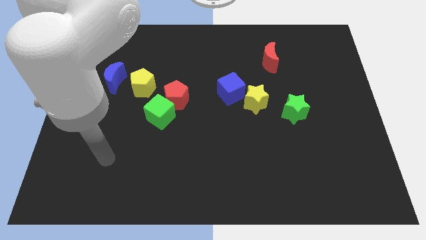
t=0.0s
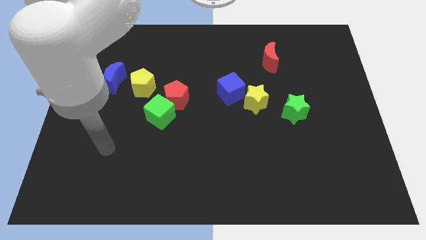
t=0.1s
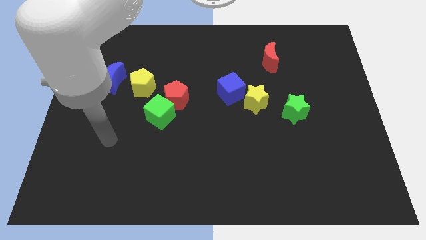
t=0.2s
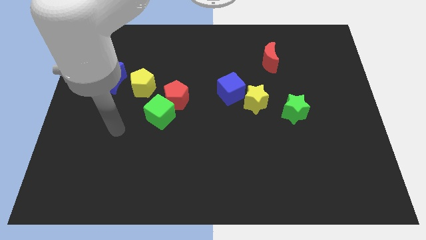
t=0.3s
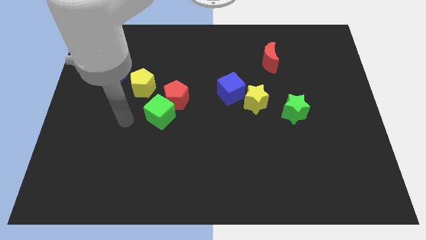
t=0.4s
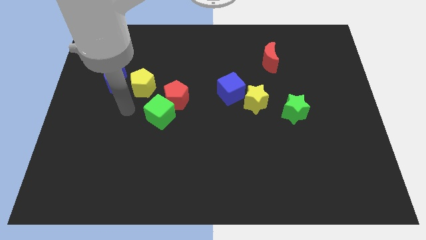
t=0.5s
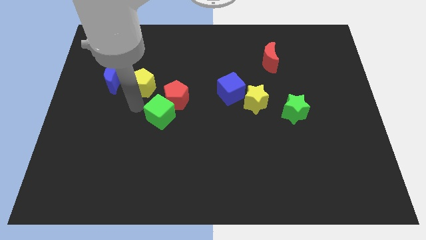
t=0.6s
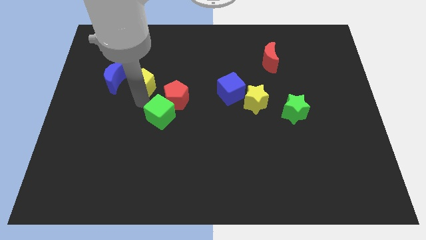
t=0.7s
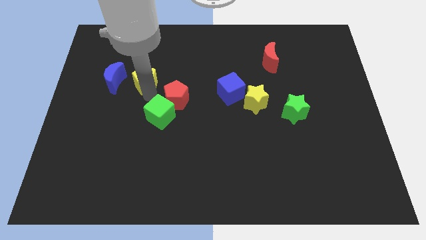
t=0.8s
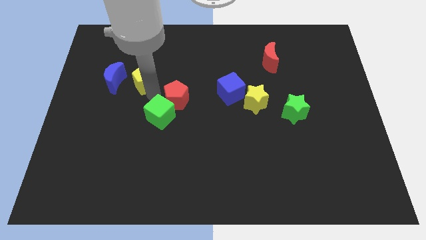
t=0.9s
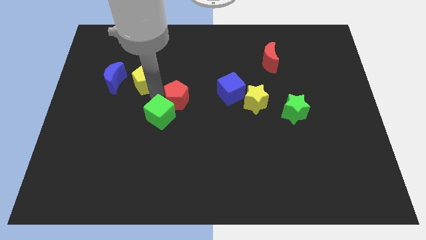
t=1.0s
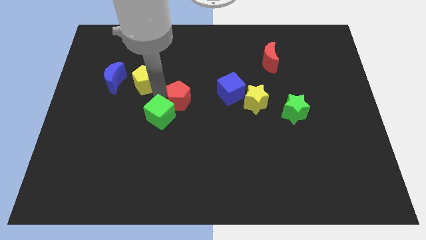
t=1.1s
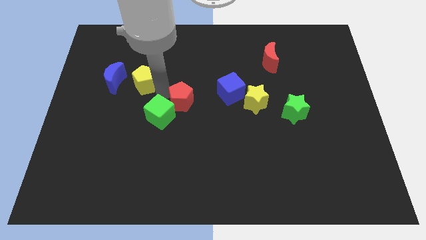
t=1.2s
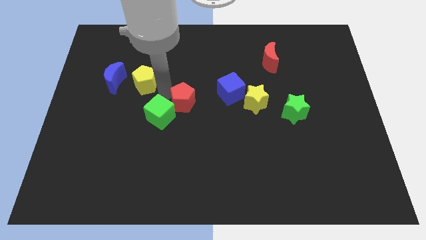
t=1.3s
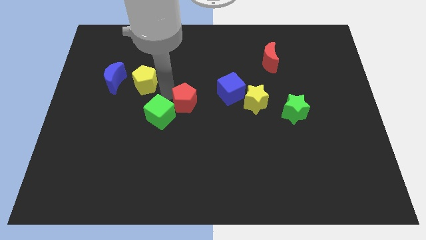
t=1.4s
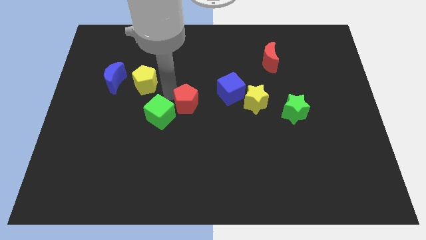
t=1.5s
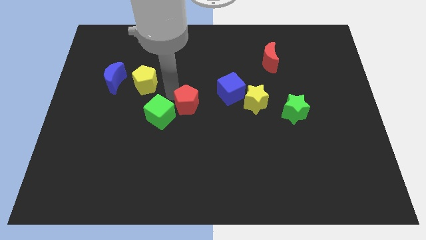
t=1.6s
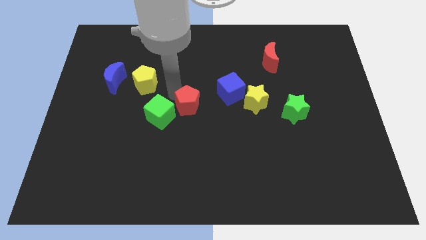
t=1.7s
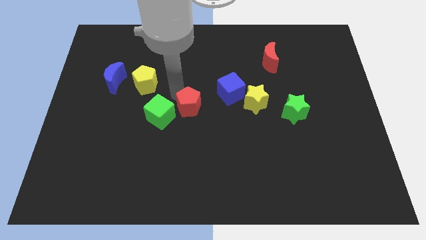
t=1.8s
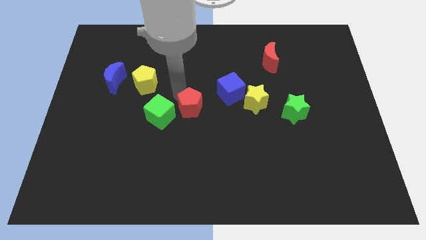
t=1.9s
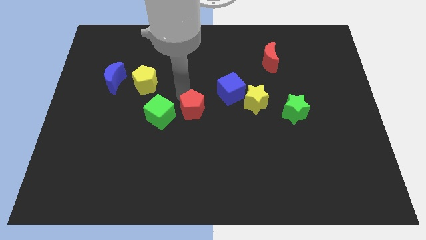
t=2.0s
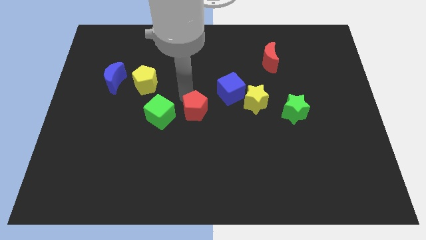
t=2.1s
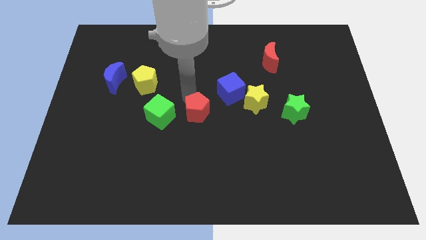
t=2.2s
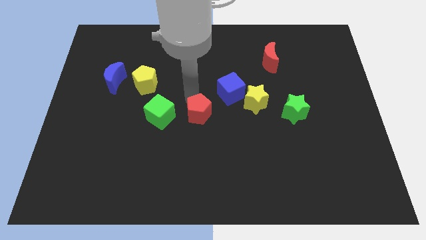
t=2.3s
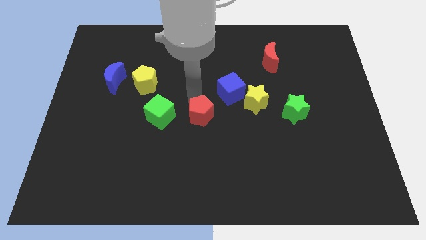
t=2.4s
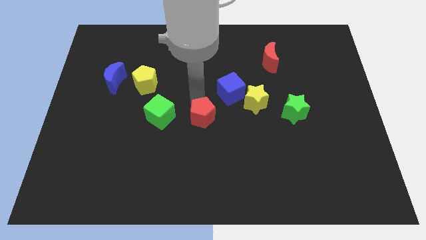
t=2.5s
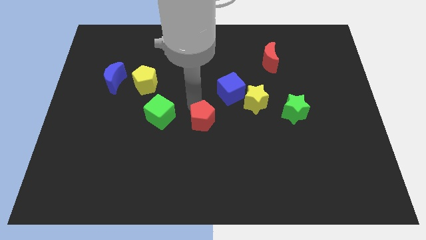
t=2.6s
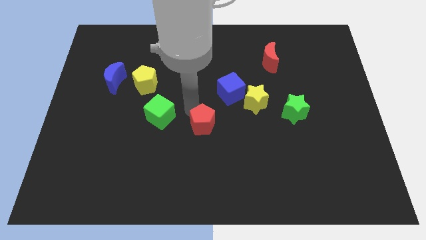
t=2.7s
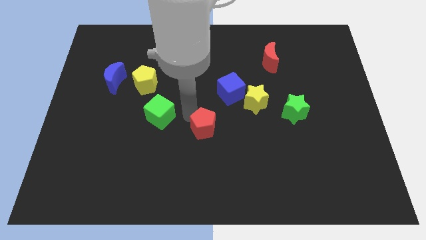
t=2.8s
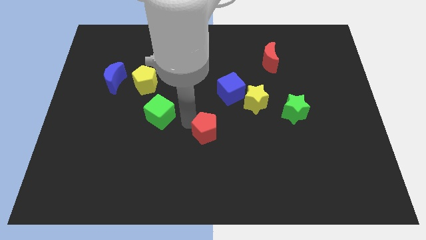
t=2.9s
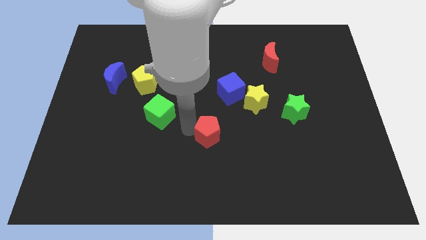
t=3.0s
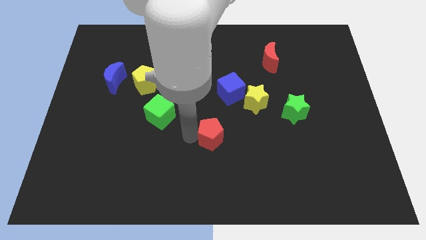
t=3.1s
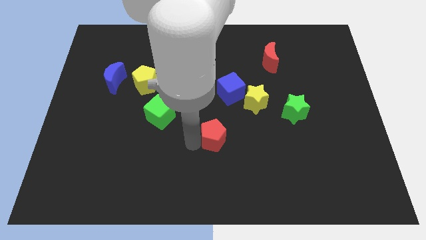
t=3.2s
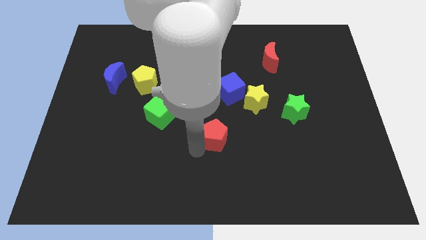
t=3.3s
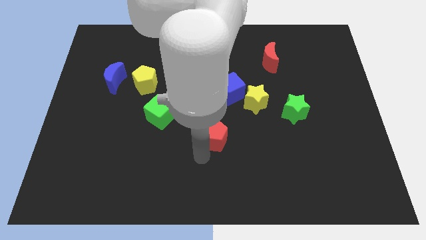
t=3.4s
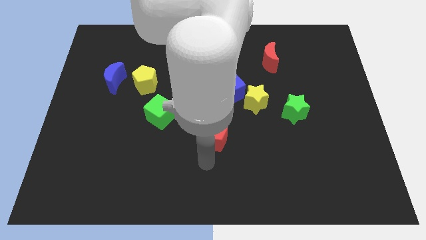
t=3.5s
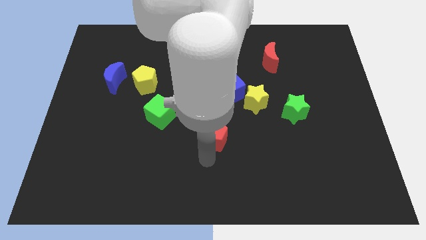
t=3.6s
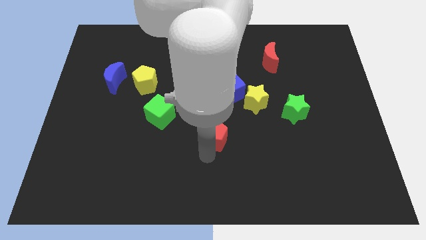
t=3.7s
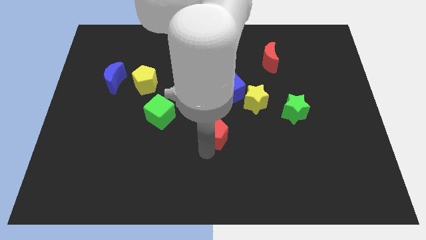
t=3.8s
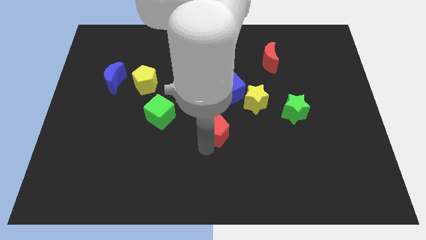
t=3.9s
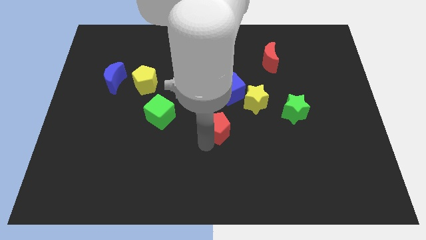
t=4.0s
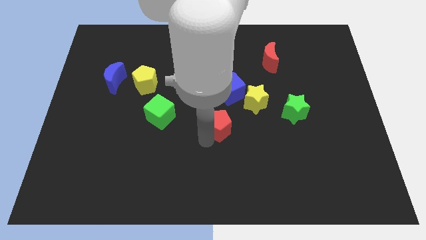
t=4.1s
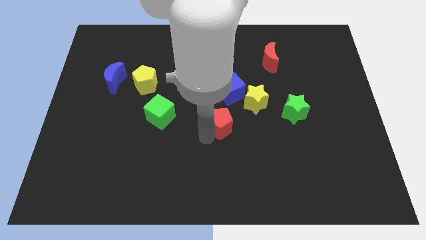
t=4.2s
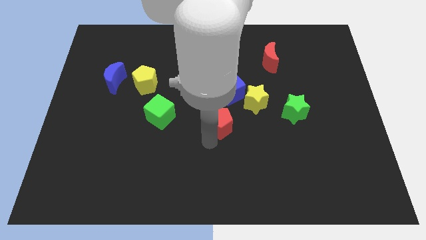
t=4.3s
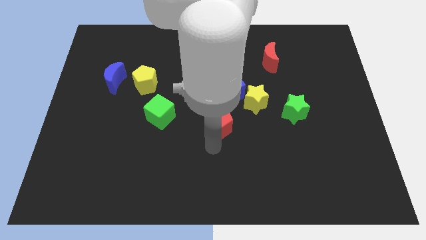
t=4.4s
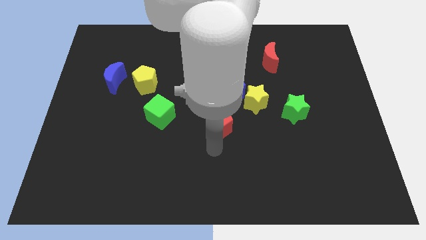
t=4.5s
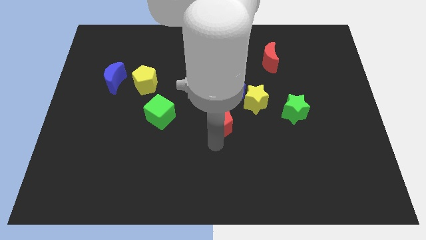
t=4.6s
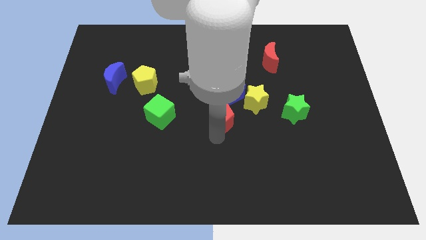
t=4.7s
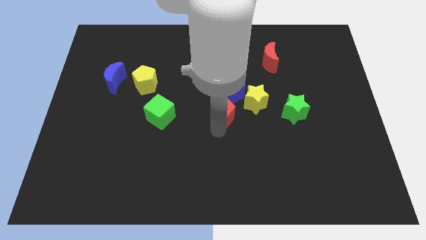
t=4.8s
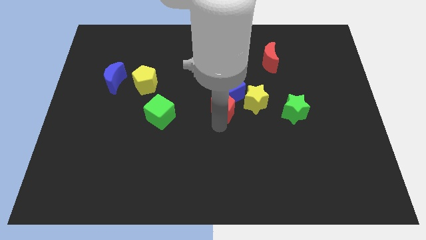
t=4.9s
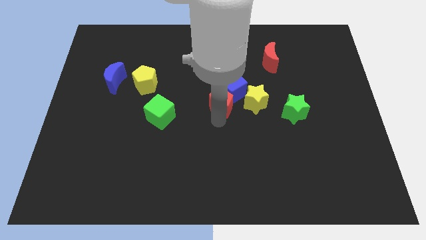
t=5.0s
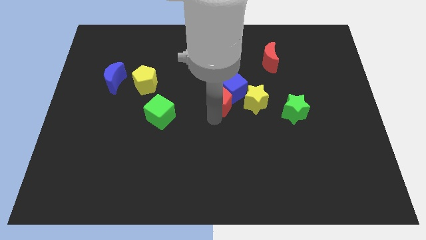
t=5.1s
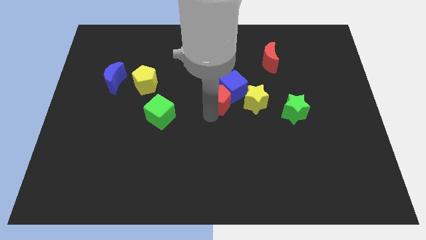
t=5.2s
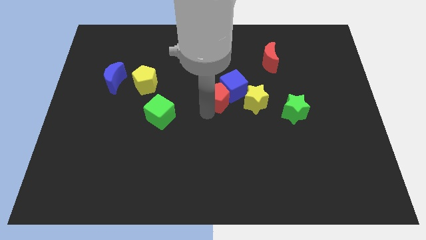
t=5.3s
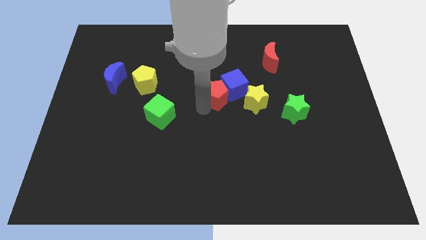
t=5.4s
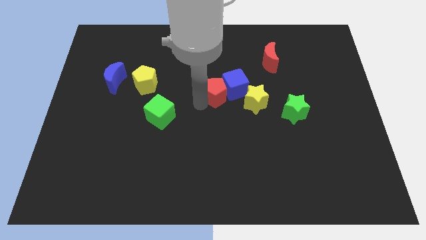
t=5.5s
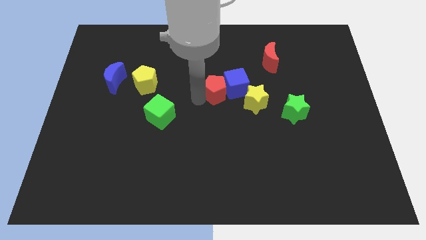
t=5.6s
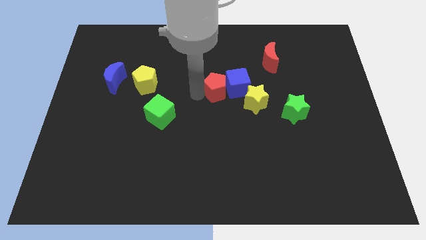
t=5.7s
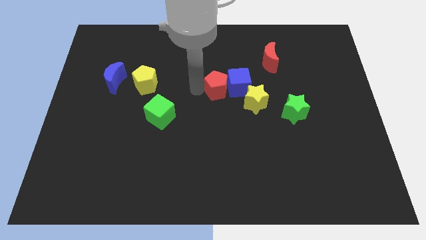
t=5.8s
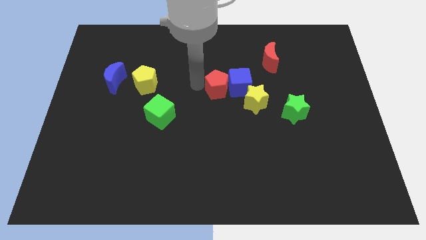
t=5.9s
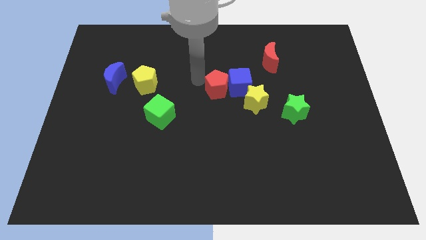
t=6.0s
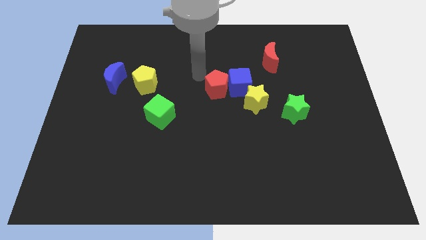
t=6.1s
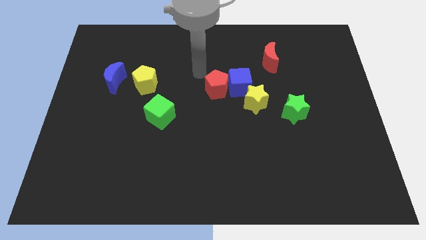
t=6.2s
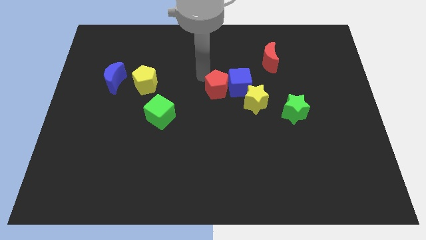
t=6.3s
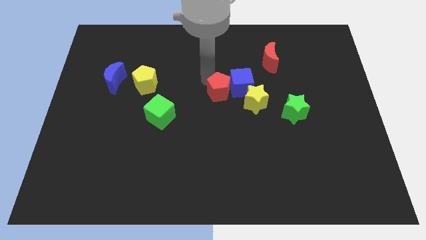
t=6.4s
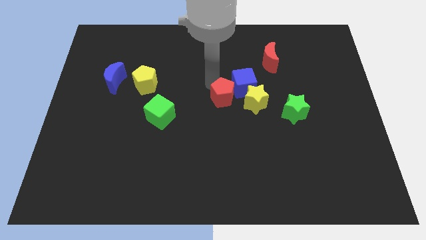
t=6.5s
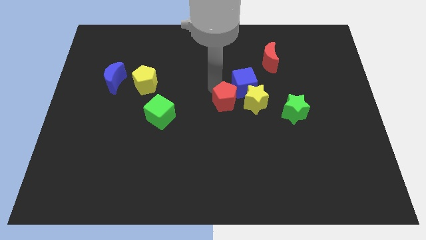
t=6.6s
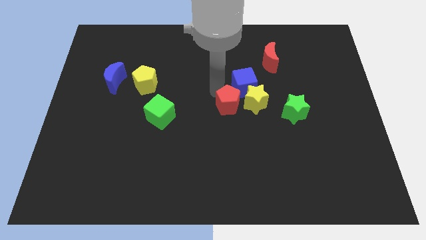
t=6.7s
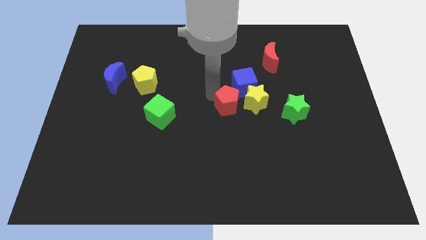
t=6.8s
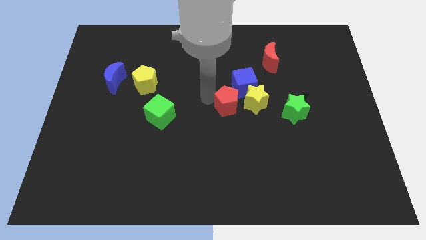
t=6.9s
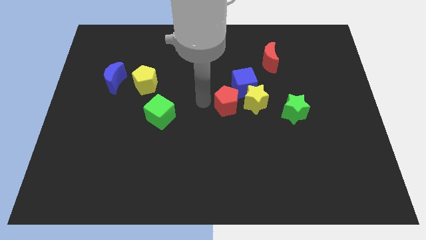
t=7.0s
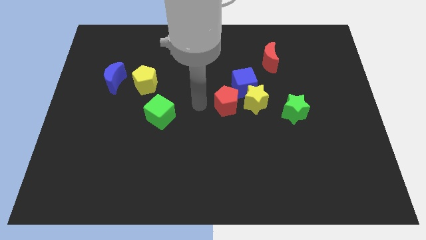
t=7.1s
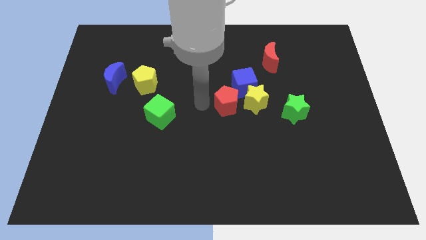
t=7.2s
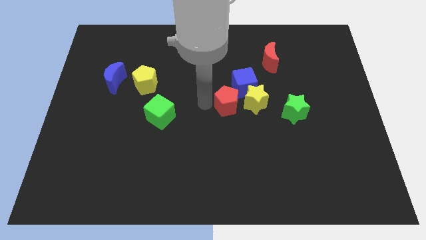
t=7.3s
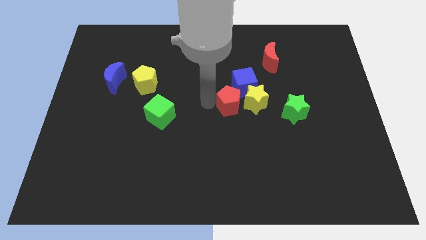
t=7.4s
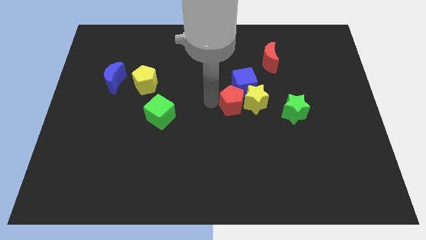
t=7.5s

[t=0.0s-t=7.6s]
slide the red pentagon close to the yellow star
